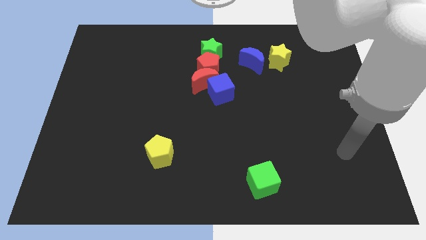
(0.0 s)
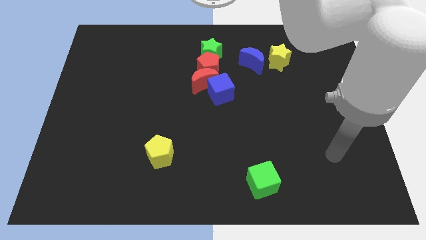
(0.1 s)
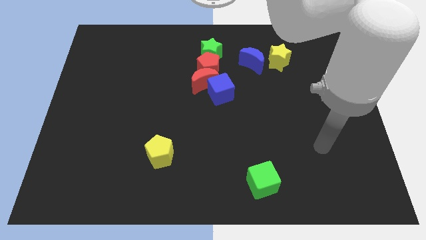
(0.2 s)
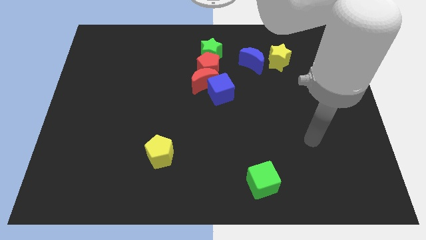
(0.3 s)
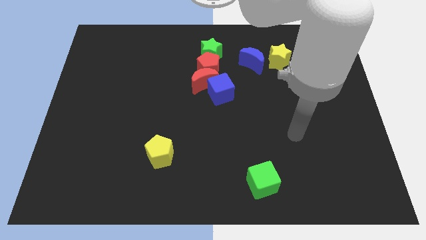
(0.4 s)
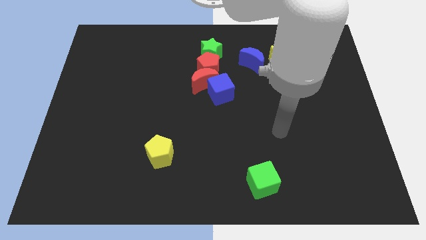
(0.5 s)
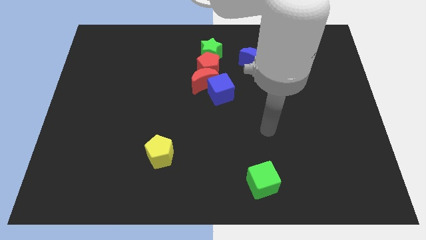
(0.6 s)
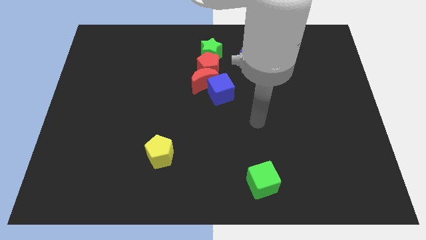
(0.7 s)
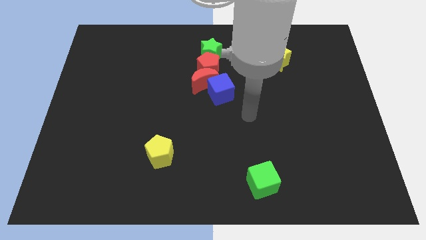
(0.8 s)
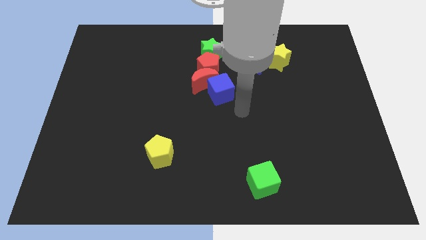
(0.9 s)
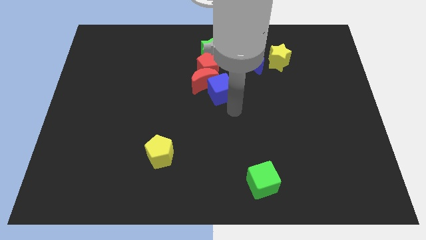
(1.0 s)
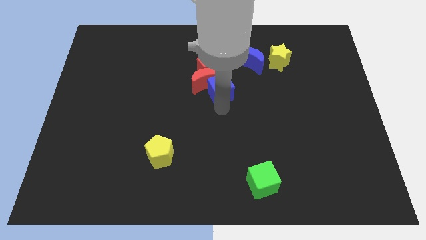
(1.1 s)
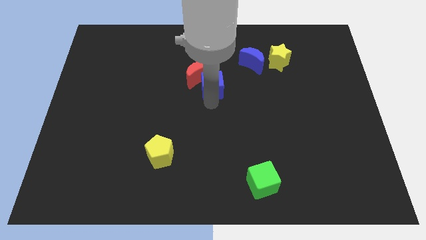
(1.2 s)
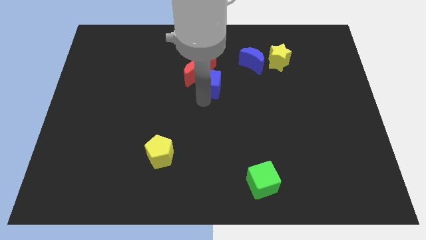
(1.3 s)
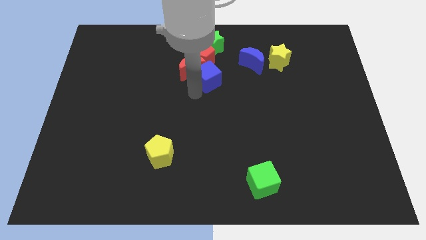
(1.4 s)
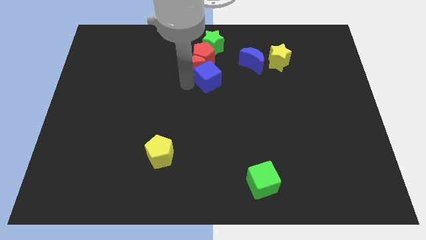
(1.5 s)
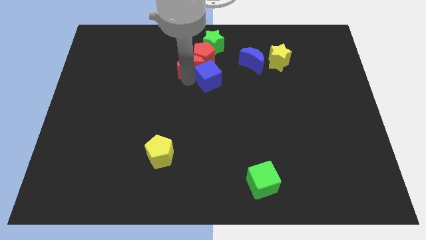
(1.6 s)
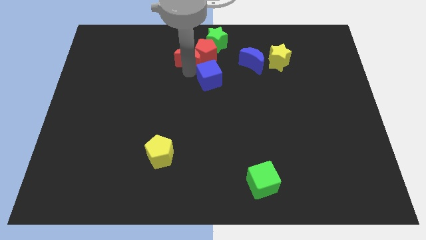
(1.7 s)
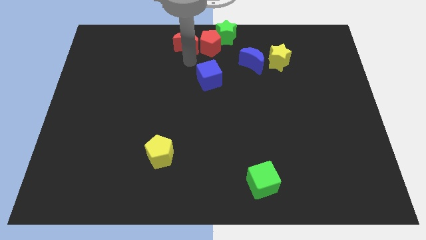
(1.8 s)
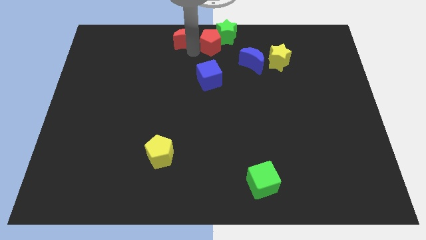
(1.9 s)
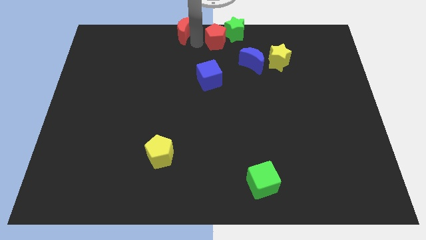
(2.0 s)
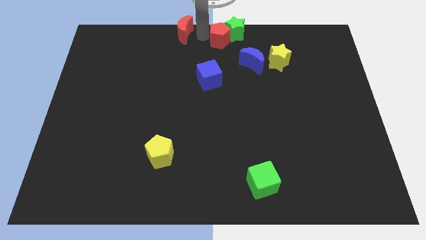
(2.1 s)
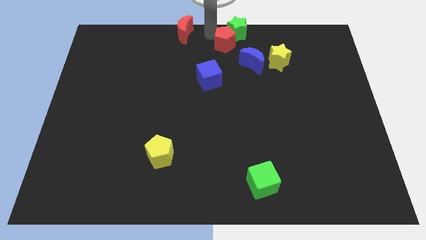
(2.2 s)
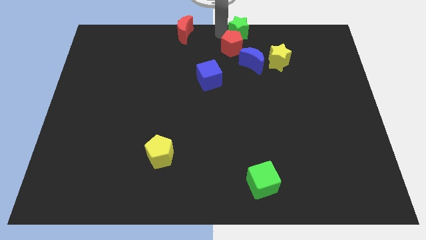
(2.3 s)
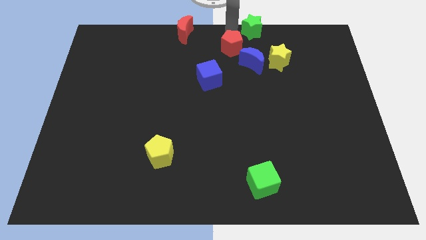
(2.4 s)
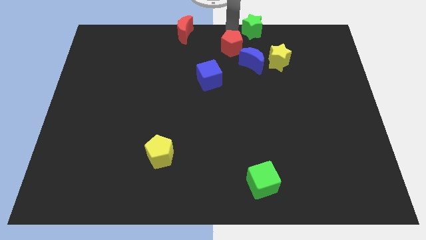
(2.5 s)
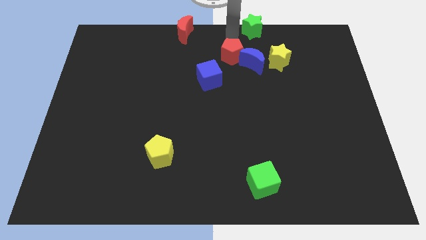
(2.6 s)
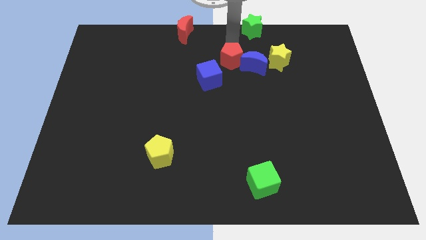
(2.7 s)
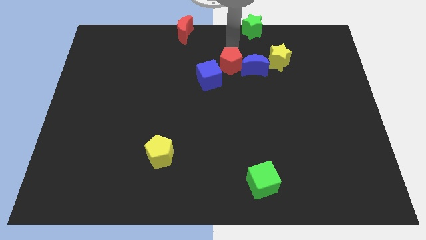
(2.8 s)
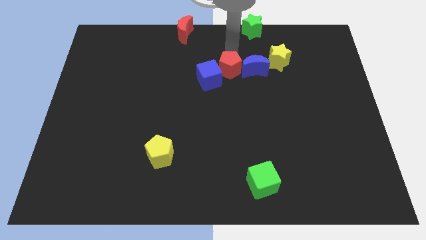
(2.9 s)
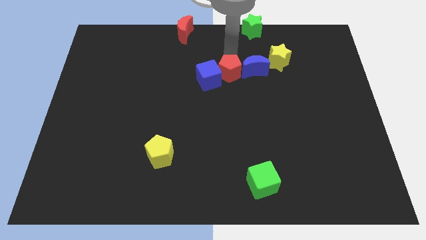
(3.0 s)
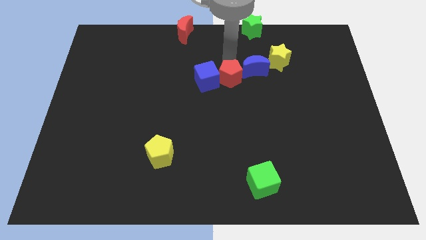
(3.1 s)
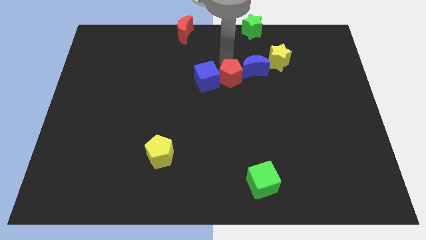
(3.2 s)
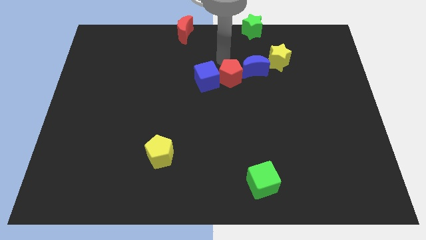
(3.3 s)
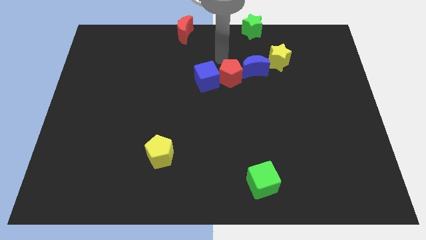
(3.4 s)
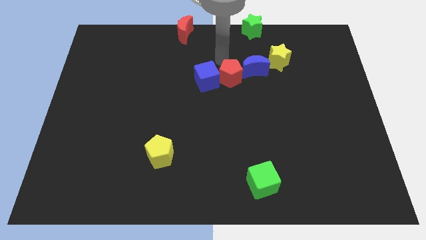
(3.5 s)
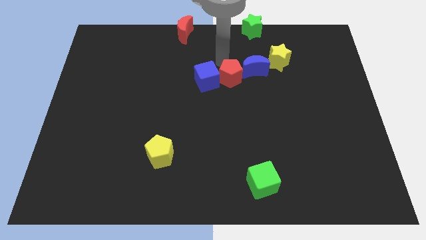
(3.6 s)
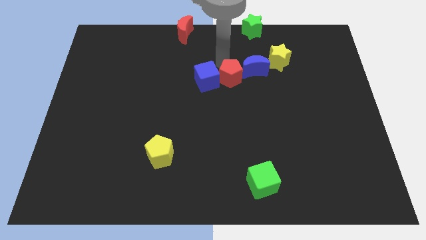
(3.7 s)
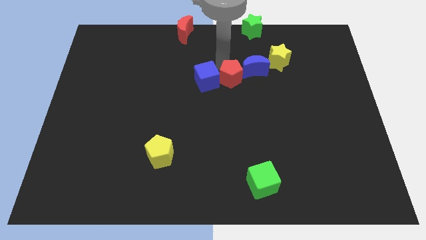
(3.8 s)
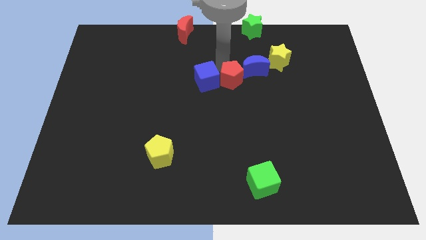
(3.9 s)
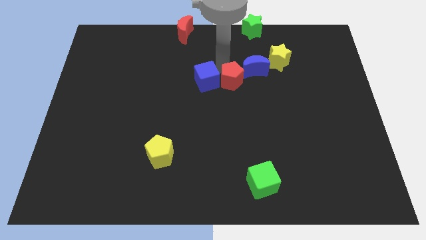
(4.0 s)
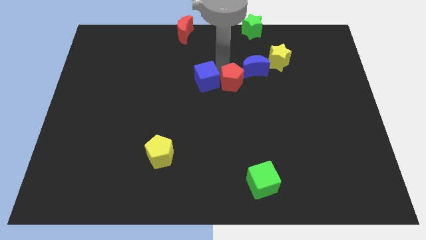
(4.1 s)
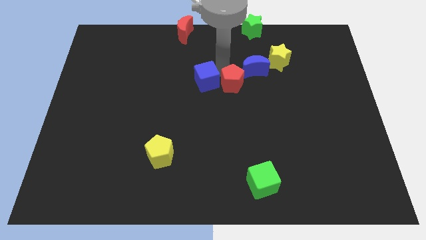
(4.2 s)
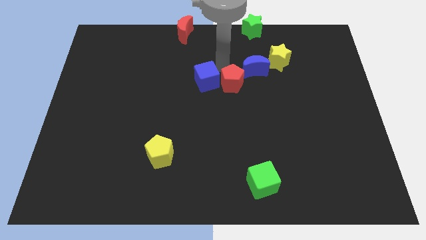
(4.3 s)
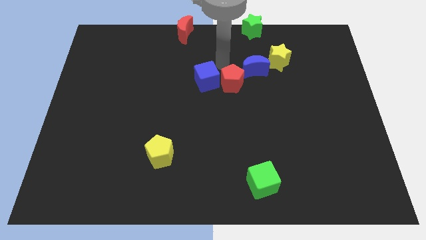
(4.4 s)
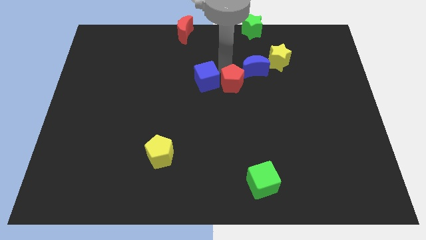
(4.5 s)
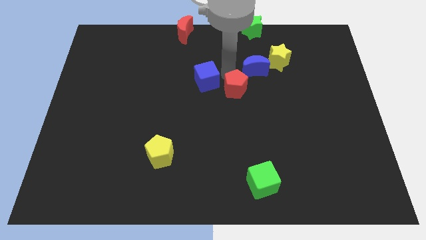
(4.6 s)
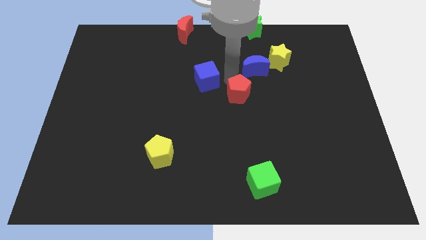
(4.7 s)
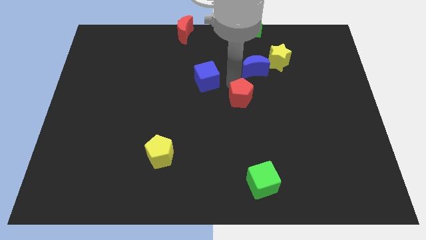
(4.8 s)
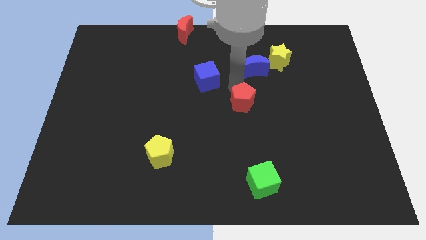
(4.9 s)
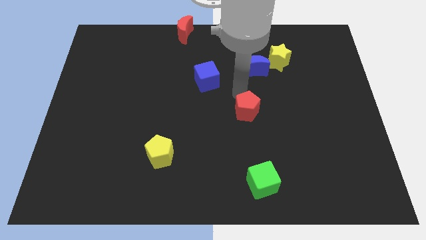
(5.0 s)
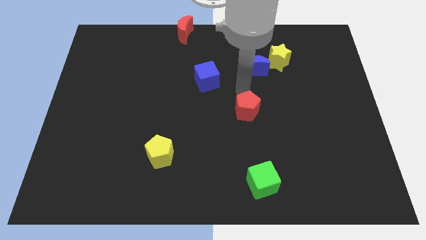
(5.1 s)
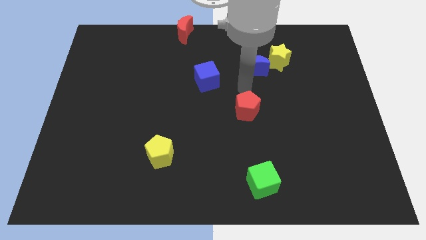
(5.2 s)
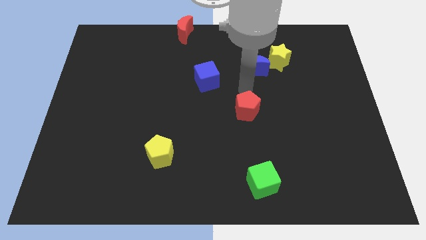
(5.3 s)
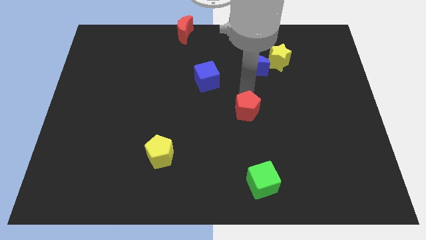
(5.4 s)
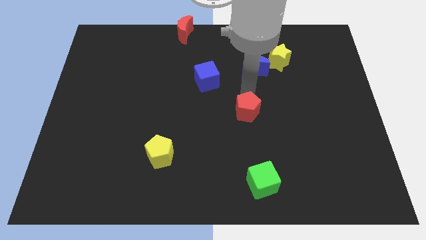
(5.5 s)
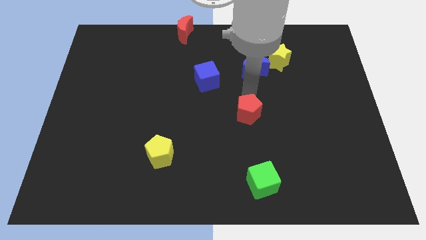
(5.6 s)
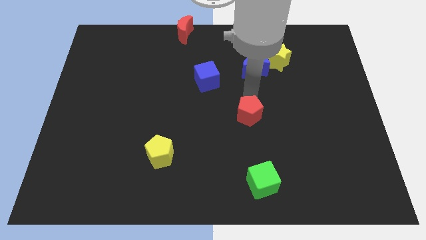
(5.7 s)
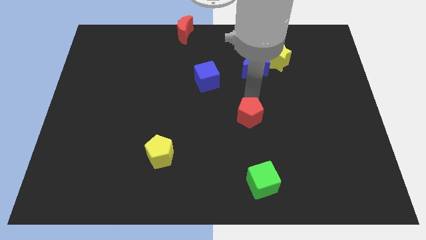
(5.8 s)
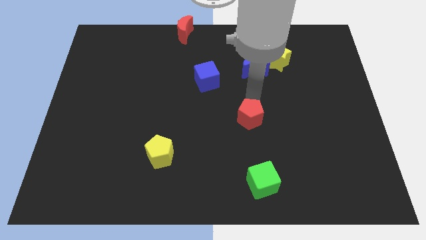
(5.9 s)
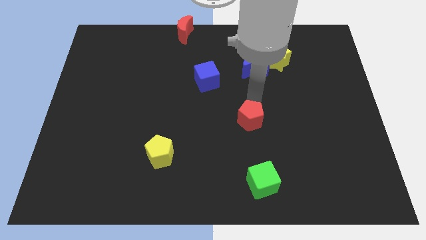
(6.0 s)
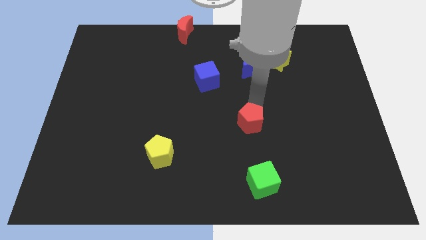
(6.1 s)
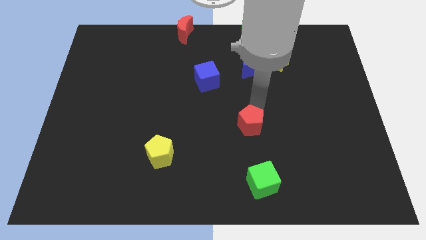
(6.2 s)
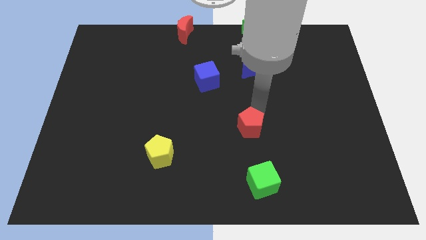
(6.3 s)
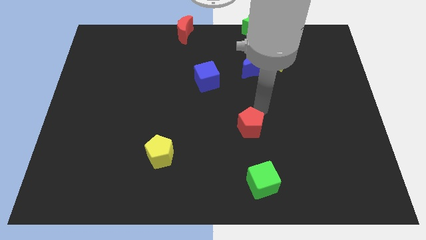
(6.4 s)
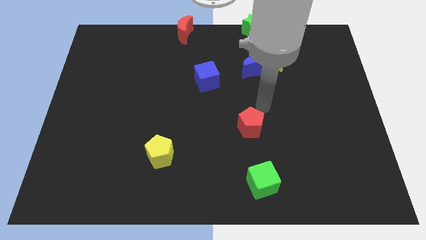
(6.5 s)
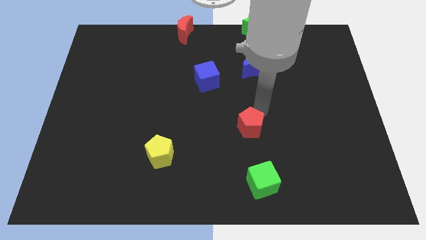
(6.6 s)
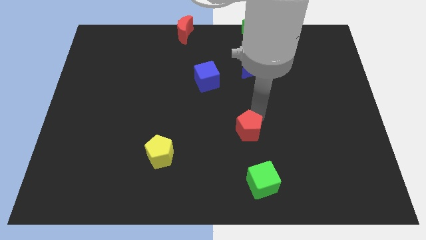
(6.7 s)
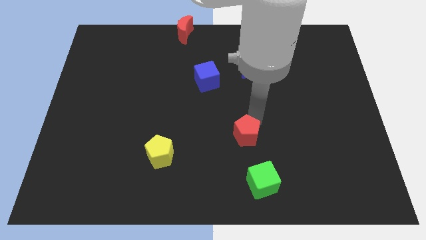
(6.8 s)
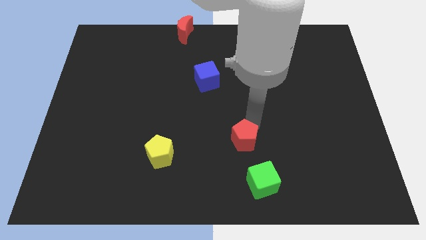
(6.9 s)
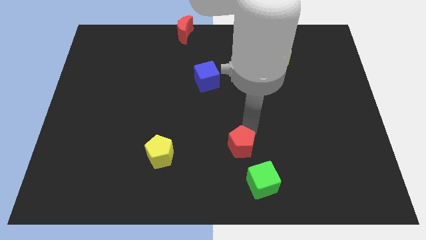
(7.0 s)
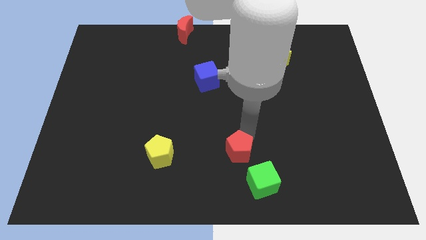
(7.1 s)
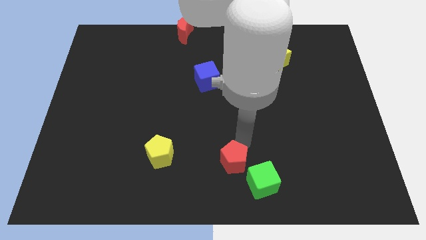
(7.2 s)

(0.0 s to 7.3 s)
slide the red pentagon to the bottom side
